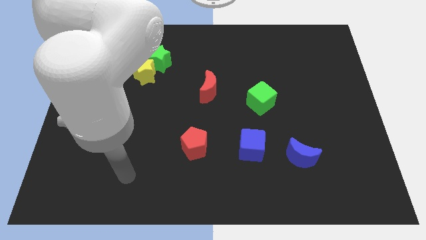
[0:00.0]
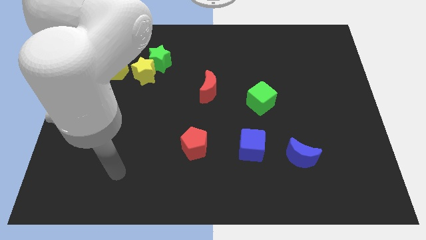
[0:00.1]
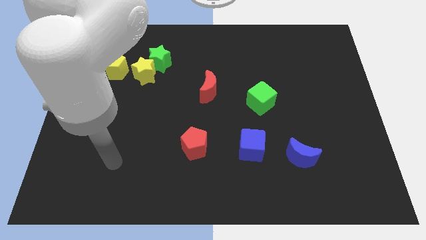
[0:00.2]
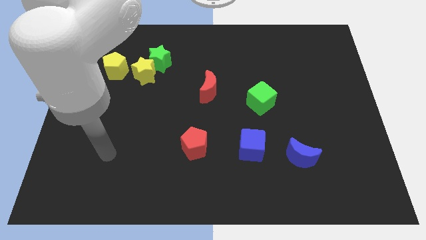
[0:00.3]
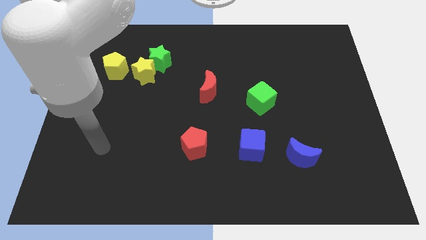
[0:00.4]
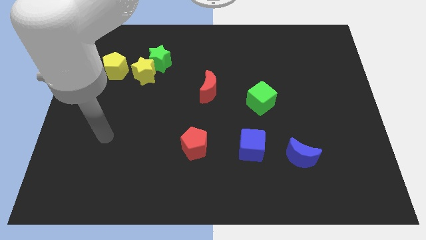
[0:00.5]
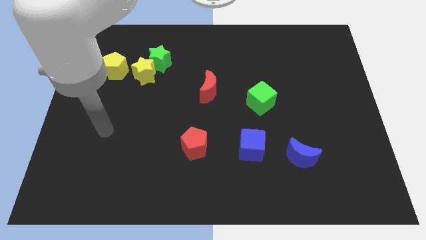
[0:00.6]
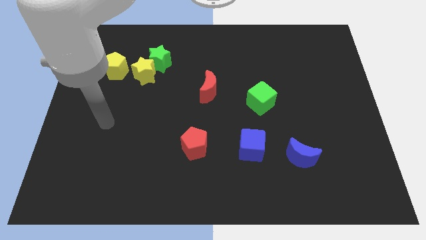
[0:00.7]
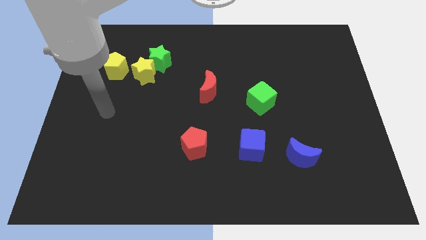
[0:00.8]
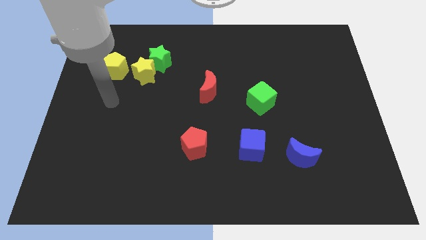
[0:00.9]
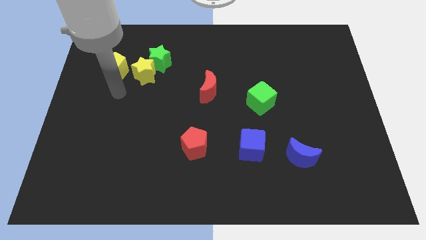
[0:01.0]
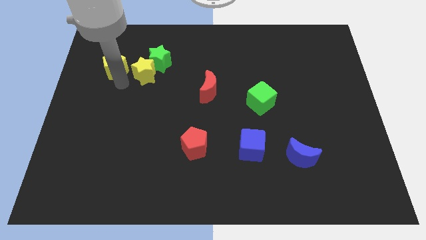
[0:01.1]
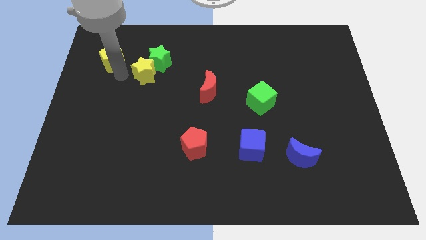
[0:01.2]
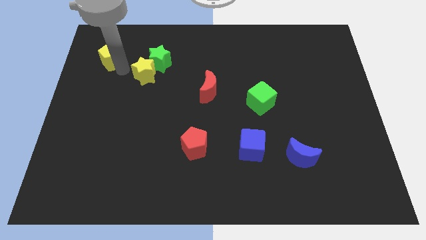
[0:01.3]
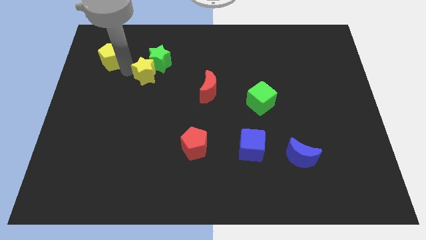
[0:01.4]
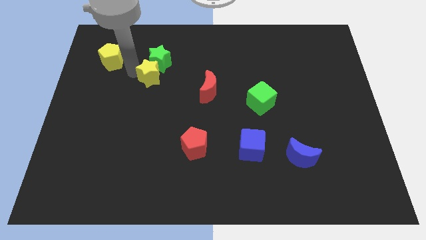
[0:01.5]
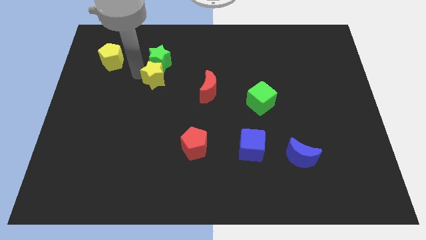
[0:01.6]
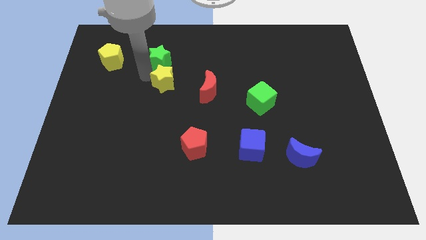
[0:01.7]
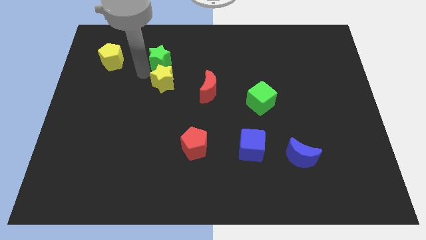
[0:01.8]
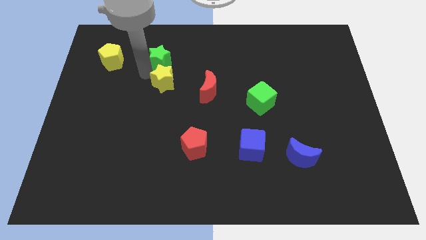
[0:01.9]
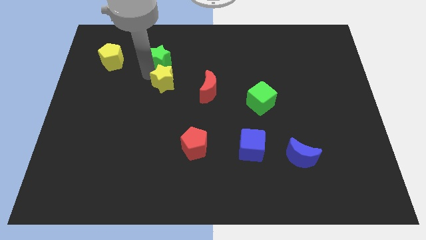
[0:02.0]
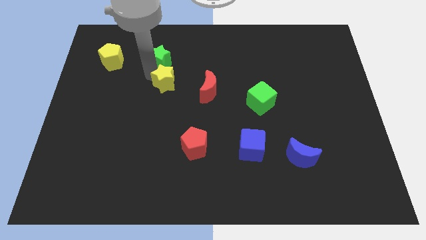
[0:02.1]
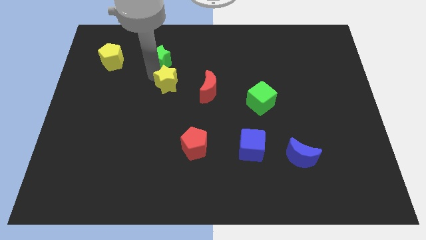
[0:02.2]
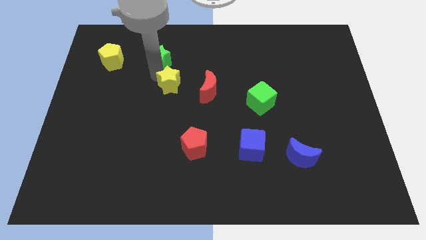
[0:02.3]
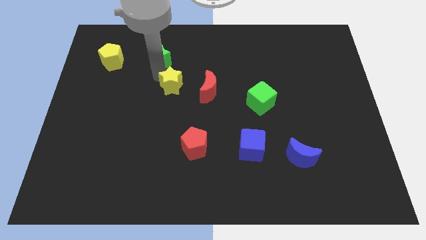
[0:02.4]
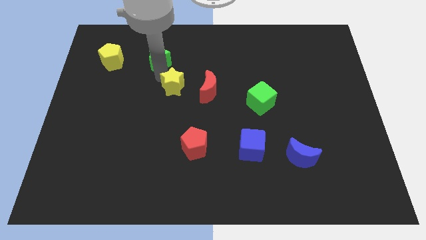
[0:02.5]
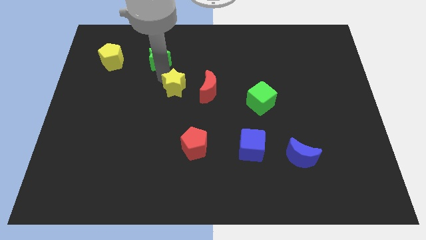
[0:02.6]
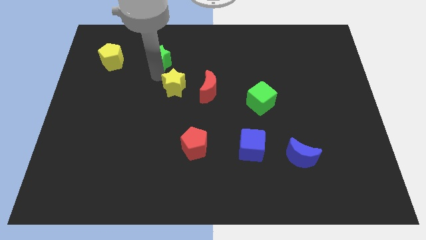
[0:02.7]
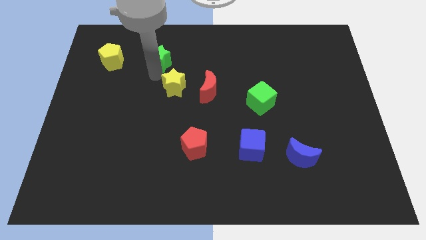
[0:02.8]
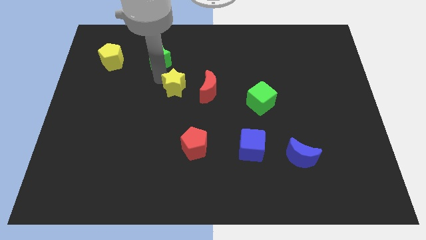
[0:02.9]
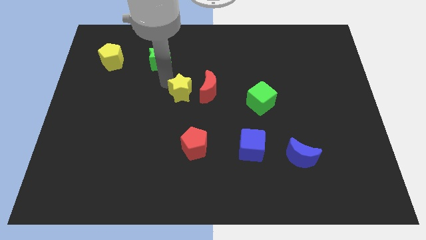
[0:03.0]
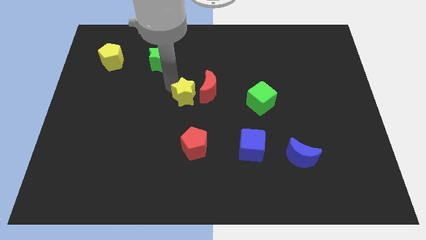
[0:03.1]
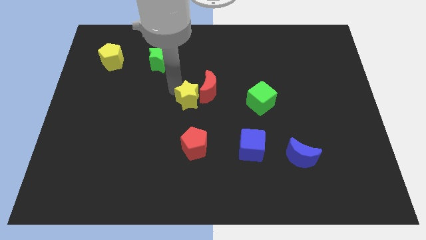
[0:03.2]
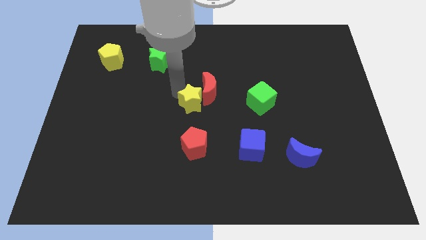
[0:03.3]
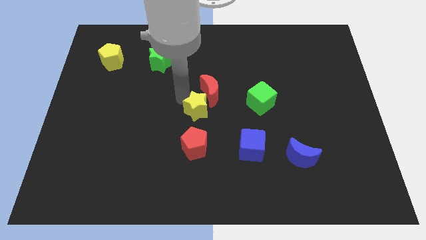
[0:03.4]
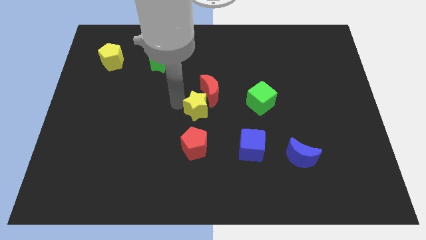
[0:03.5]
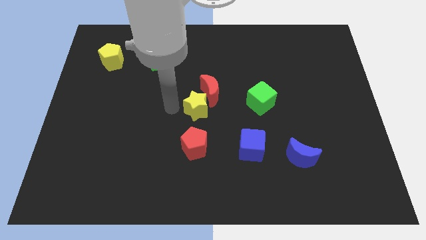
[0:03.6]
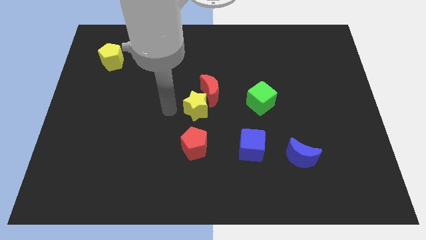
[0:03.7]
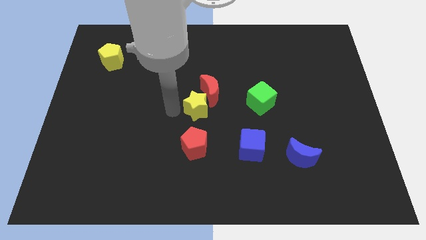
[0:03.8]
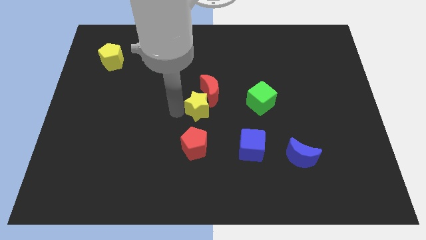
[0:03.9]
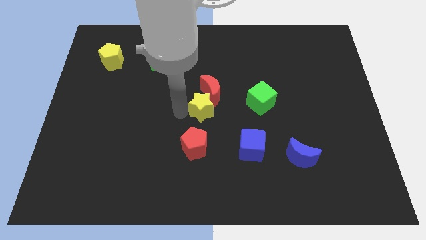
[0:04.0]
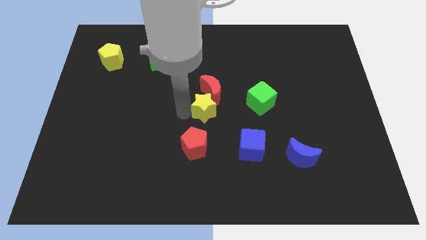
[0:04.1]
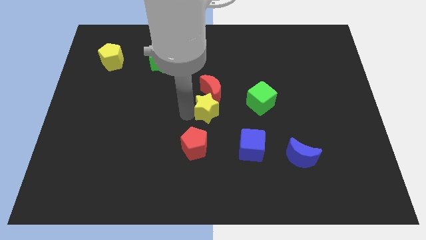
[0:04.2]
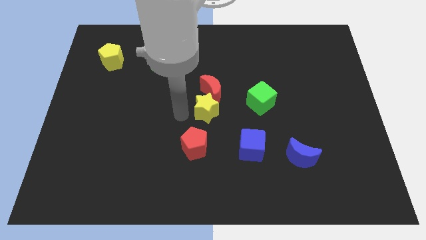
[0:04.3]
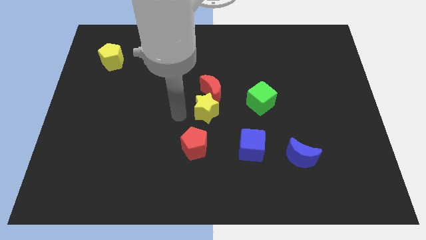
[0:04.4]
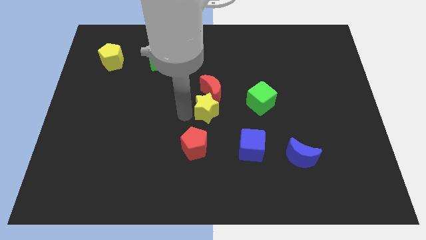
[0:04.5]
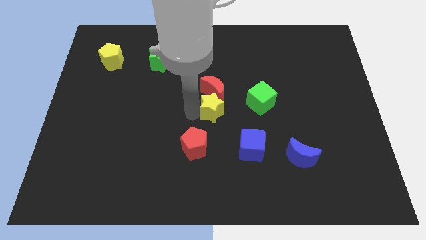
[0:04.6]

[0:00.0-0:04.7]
put the yellow star diagonally down and to the right of the red moon

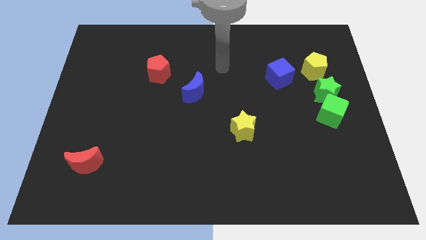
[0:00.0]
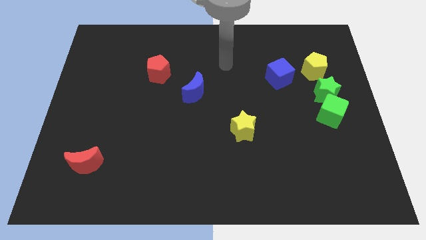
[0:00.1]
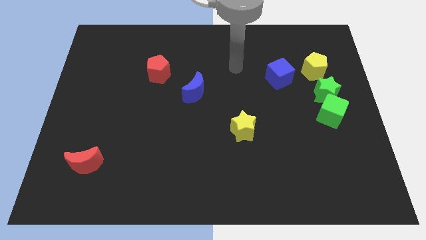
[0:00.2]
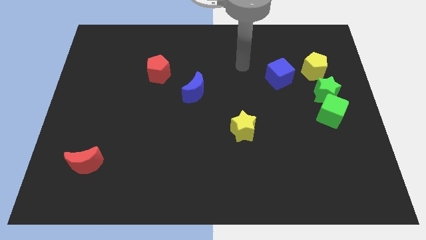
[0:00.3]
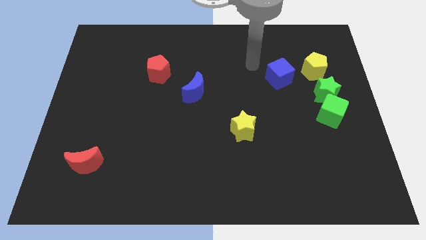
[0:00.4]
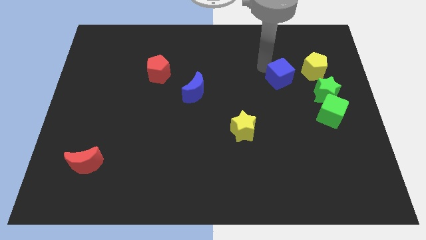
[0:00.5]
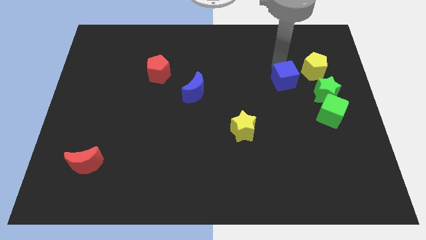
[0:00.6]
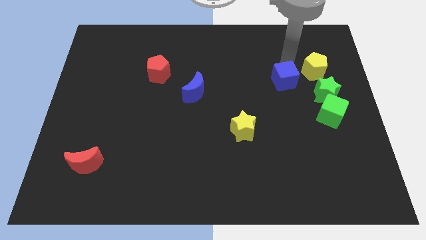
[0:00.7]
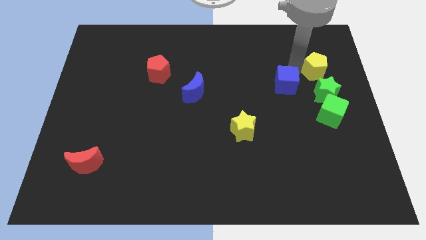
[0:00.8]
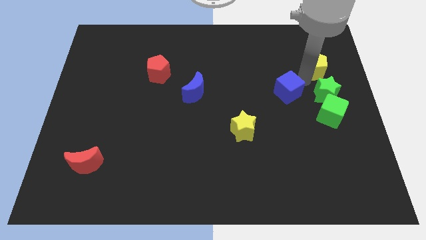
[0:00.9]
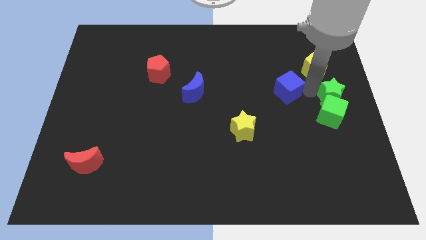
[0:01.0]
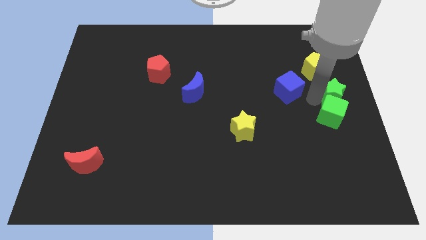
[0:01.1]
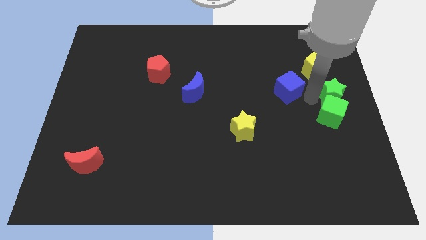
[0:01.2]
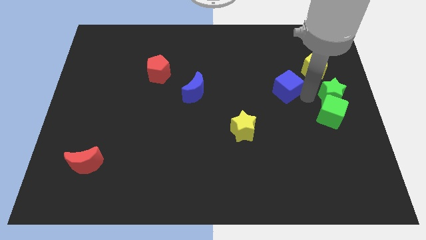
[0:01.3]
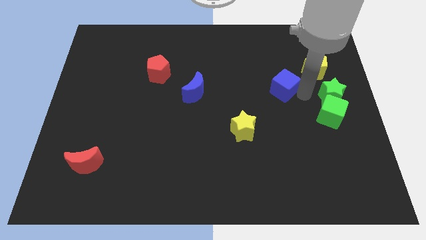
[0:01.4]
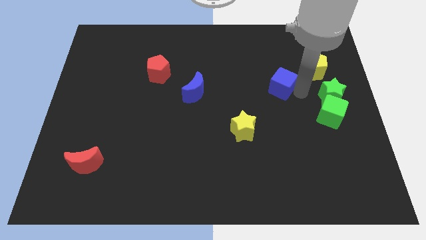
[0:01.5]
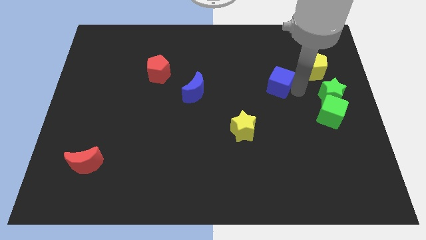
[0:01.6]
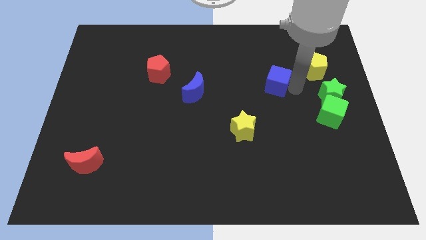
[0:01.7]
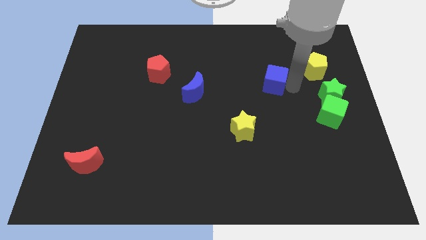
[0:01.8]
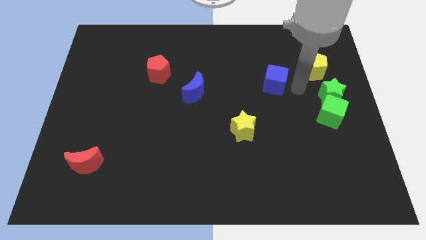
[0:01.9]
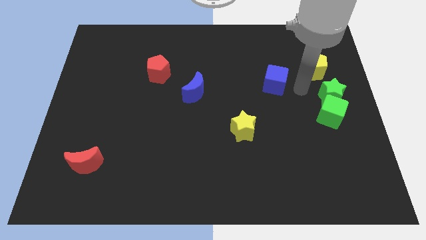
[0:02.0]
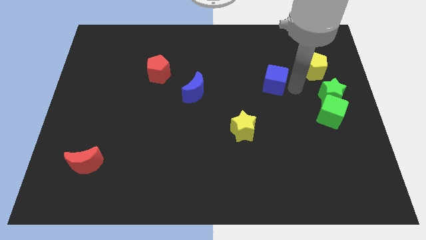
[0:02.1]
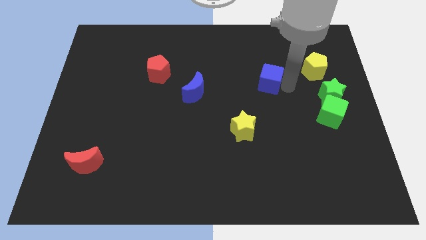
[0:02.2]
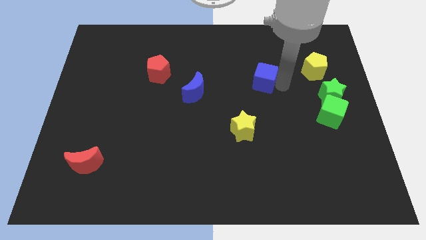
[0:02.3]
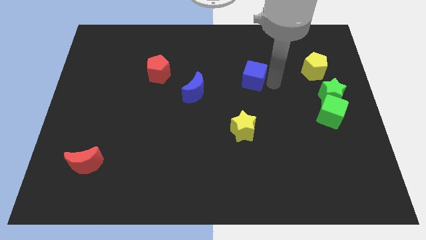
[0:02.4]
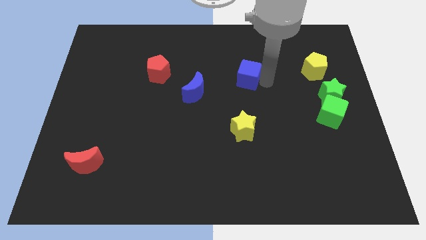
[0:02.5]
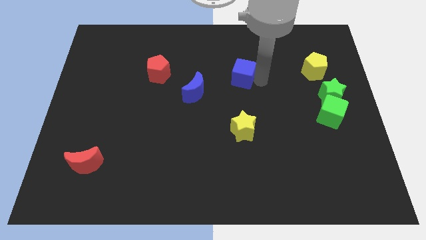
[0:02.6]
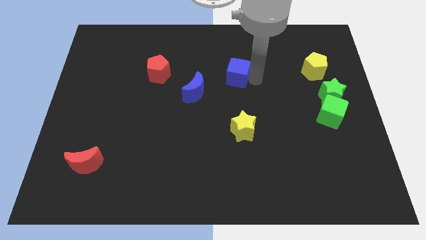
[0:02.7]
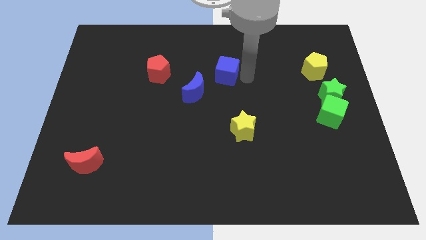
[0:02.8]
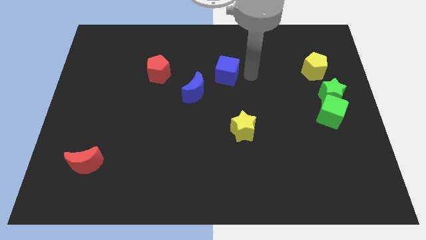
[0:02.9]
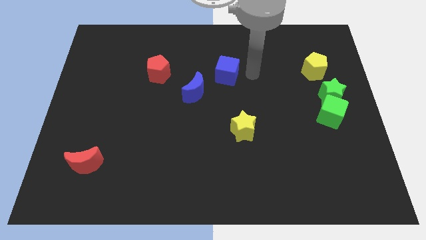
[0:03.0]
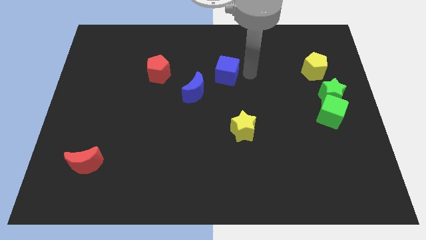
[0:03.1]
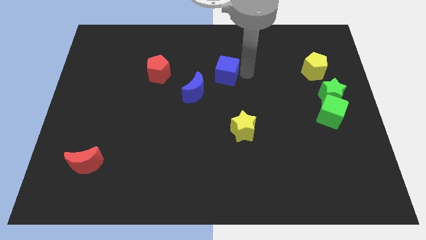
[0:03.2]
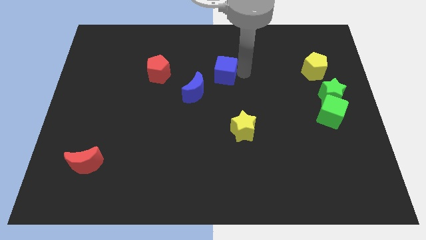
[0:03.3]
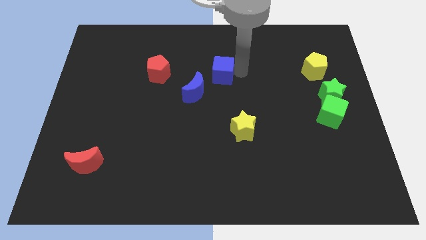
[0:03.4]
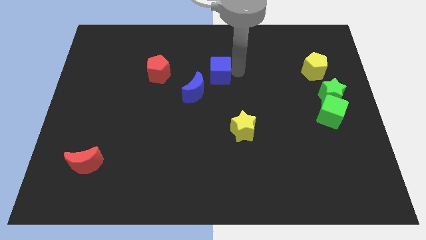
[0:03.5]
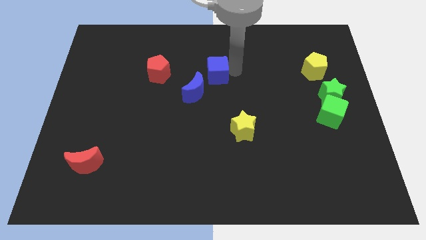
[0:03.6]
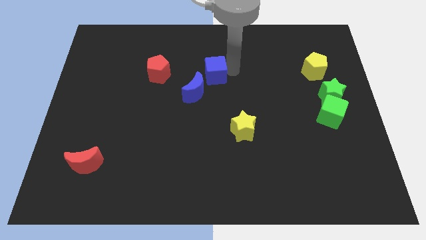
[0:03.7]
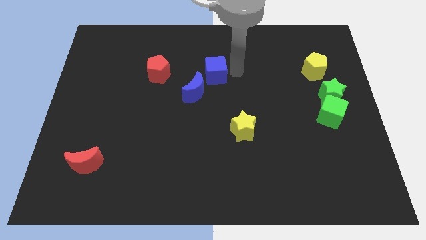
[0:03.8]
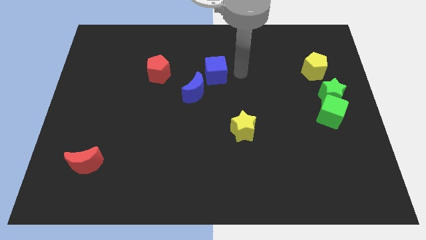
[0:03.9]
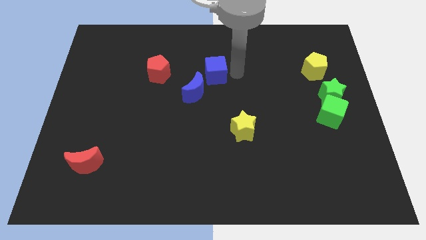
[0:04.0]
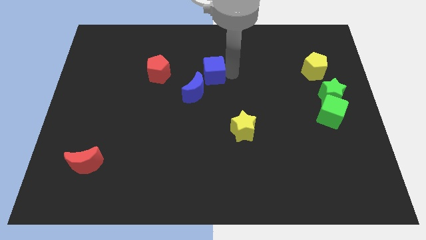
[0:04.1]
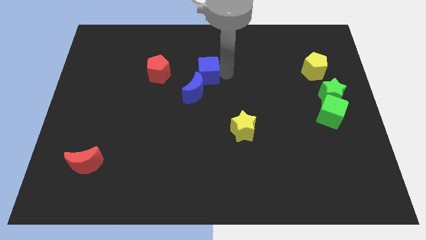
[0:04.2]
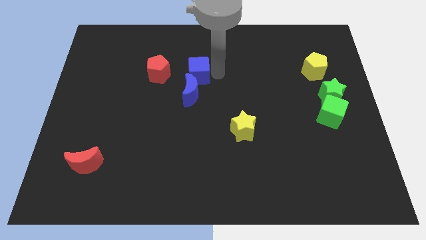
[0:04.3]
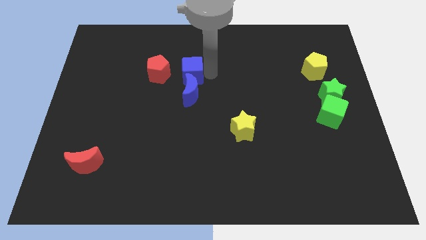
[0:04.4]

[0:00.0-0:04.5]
move the blue cube to the top left of the blue moon
